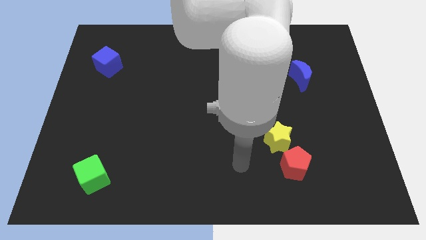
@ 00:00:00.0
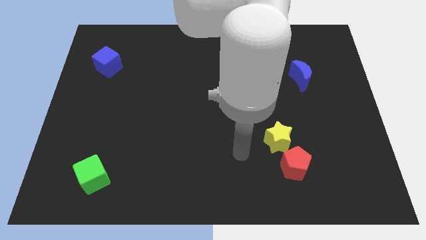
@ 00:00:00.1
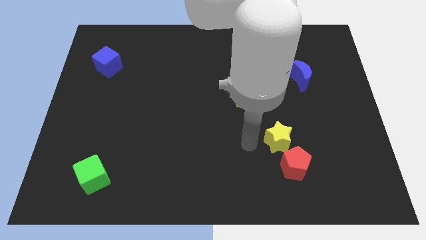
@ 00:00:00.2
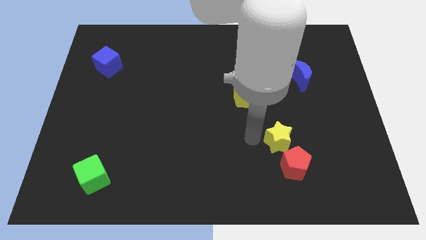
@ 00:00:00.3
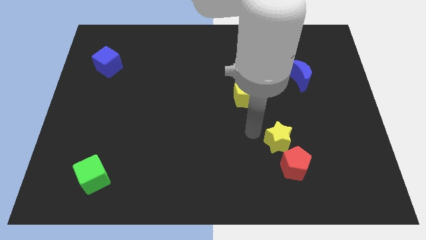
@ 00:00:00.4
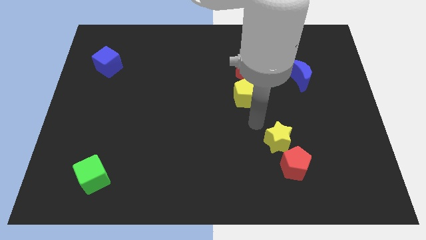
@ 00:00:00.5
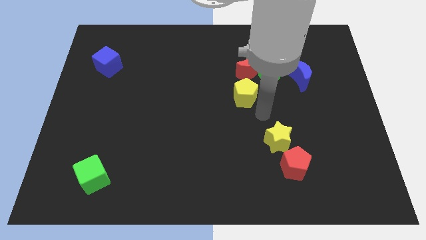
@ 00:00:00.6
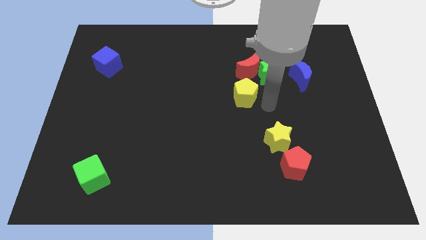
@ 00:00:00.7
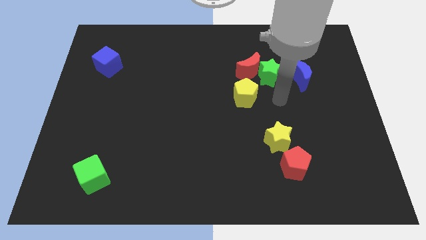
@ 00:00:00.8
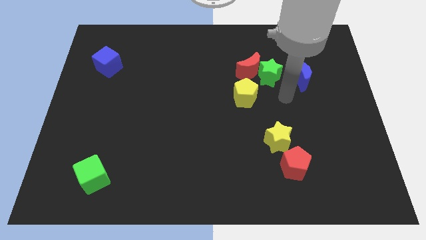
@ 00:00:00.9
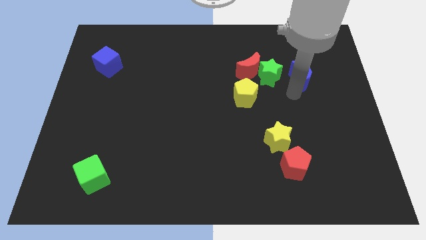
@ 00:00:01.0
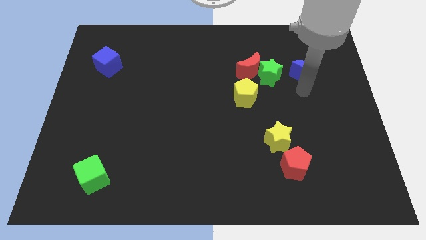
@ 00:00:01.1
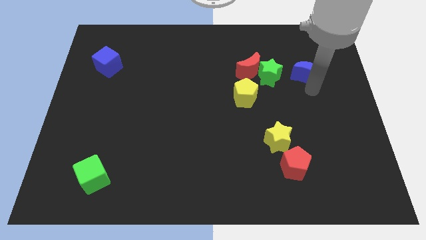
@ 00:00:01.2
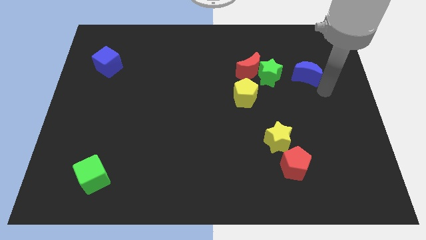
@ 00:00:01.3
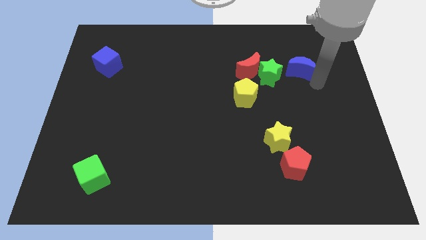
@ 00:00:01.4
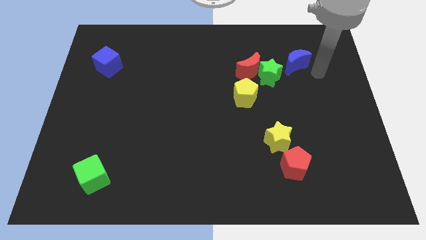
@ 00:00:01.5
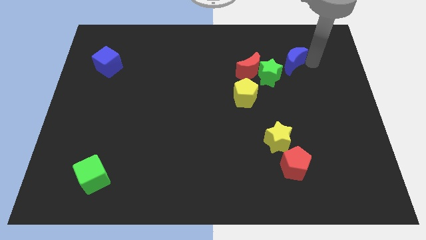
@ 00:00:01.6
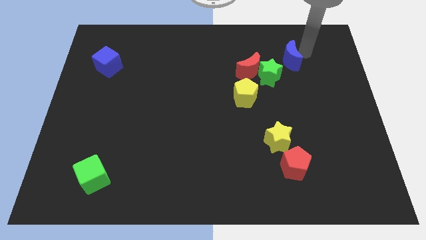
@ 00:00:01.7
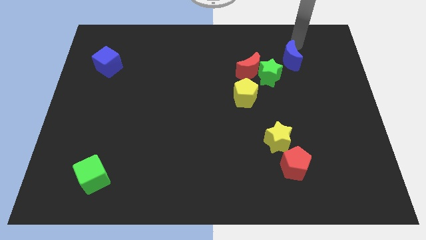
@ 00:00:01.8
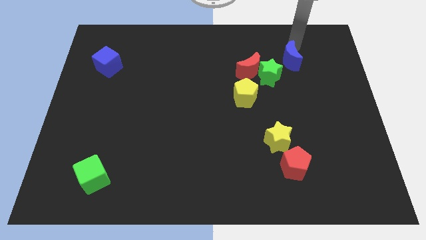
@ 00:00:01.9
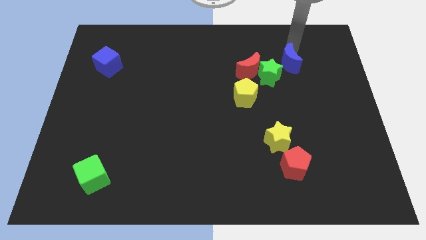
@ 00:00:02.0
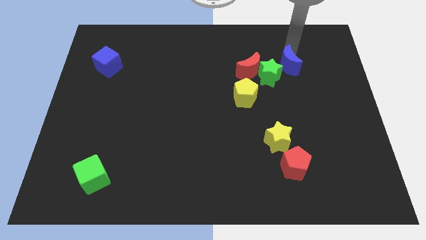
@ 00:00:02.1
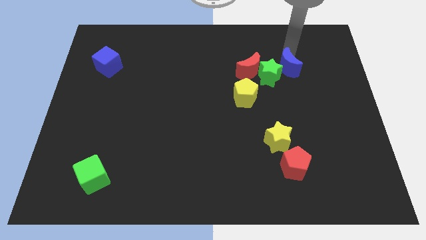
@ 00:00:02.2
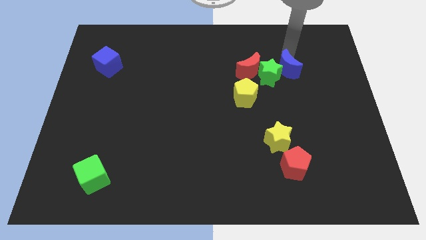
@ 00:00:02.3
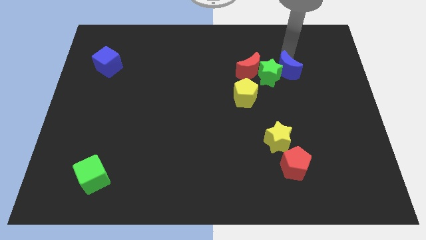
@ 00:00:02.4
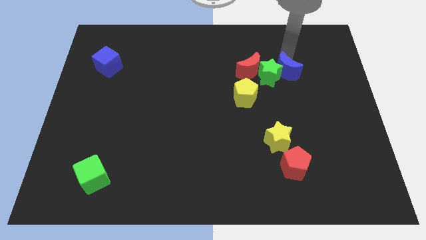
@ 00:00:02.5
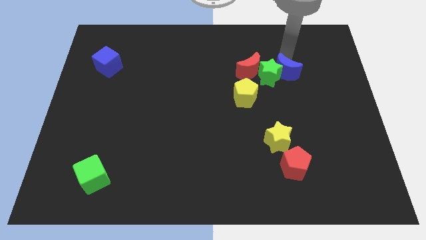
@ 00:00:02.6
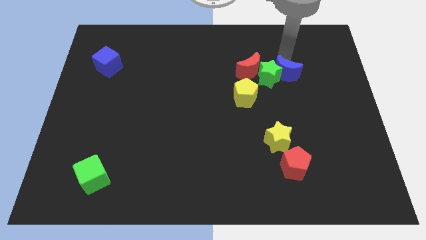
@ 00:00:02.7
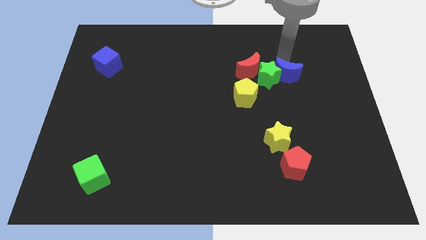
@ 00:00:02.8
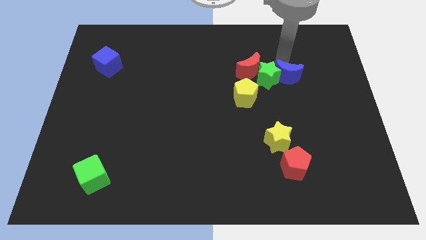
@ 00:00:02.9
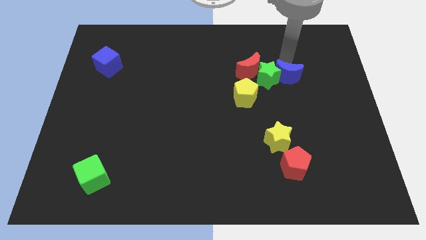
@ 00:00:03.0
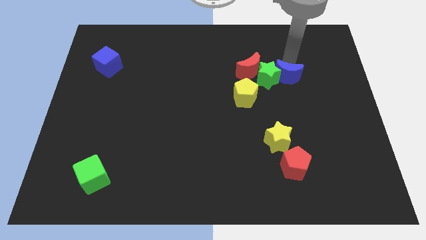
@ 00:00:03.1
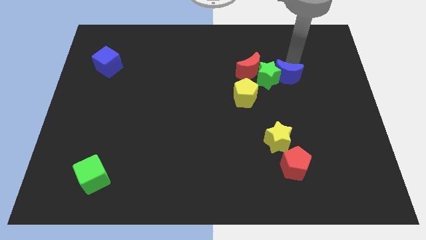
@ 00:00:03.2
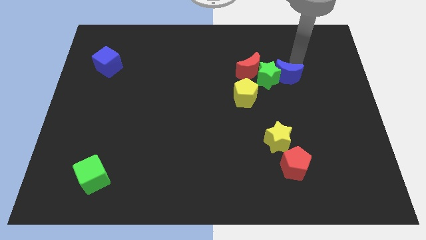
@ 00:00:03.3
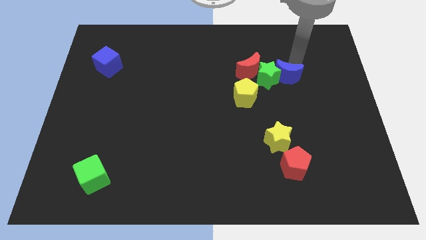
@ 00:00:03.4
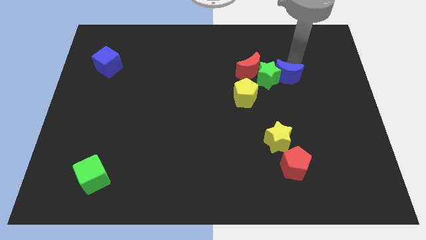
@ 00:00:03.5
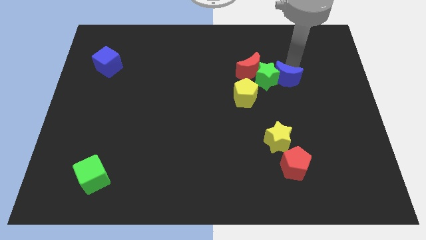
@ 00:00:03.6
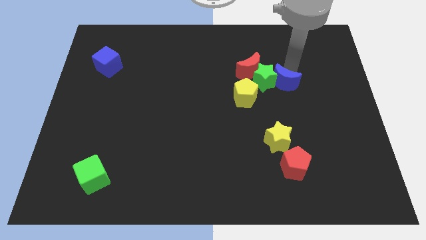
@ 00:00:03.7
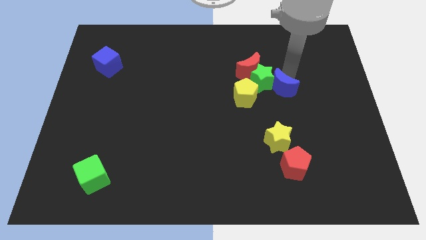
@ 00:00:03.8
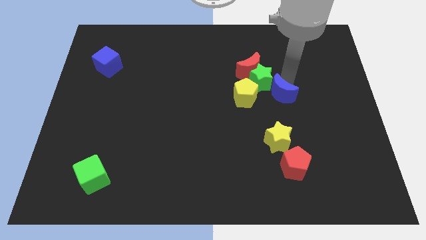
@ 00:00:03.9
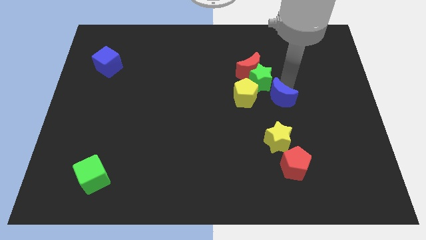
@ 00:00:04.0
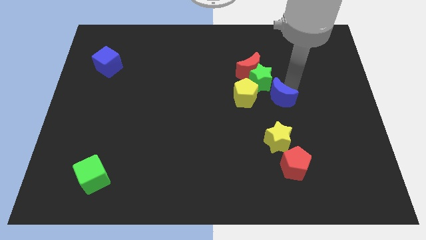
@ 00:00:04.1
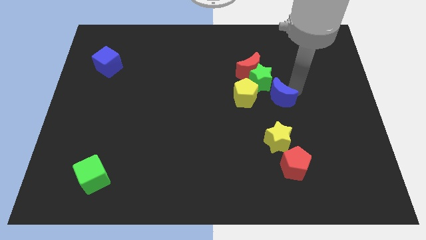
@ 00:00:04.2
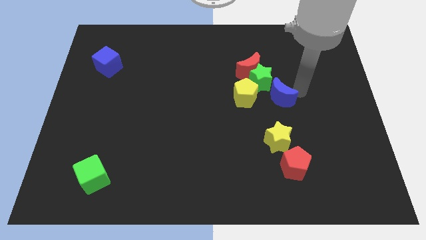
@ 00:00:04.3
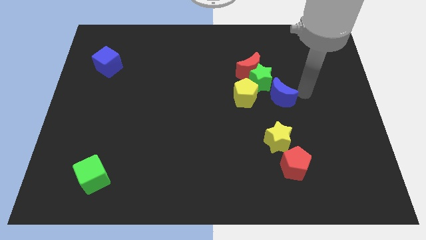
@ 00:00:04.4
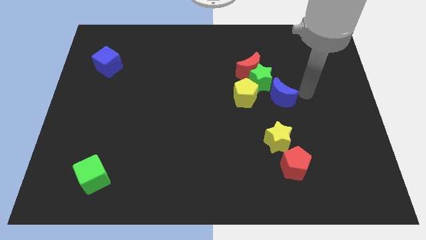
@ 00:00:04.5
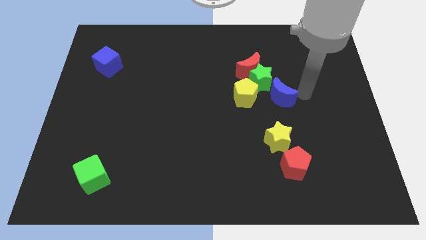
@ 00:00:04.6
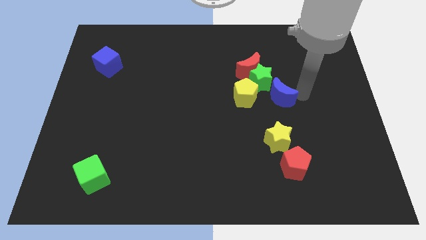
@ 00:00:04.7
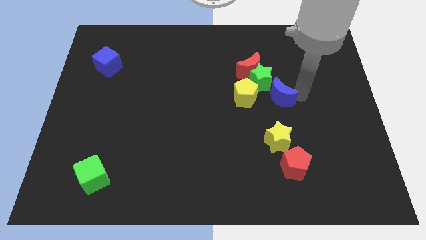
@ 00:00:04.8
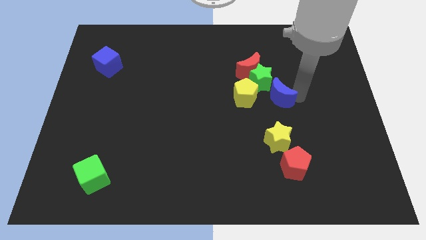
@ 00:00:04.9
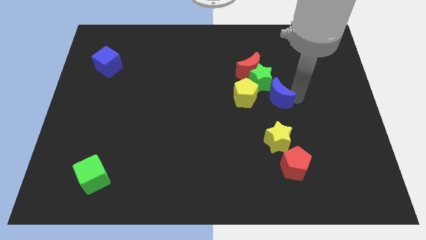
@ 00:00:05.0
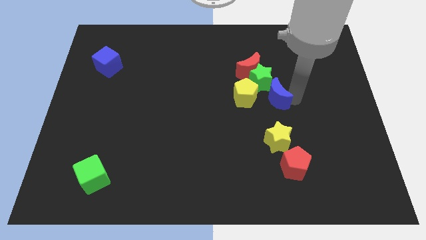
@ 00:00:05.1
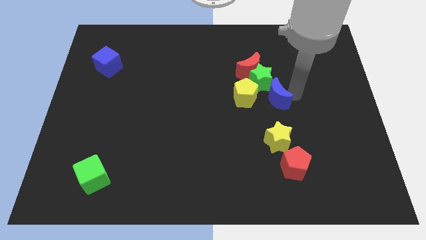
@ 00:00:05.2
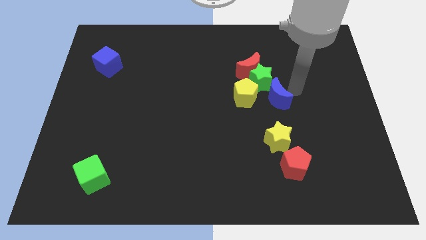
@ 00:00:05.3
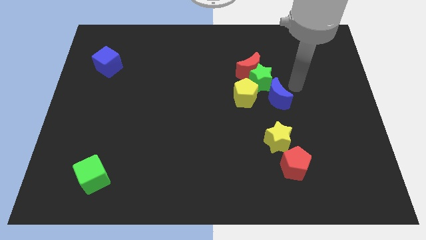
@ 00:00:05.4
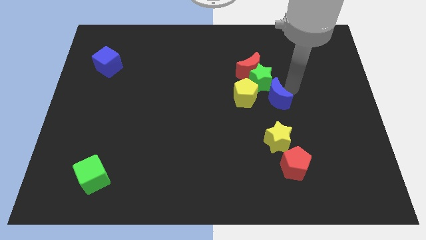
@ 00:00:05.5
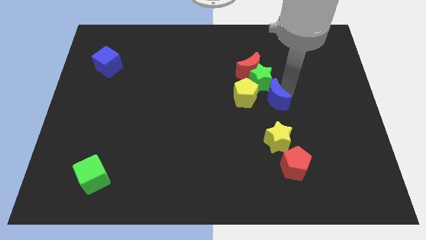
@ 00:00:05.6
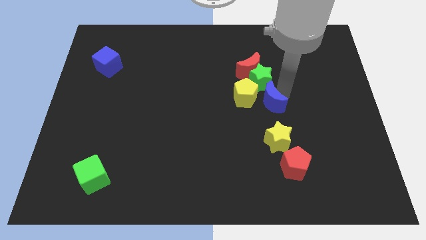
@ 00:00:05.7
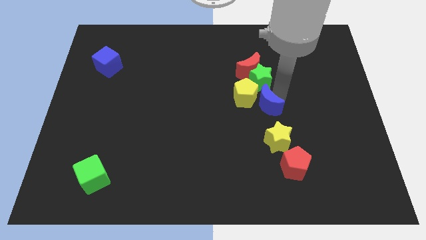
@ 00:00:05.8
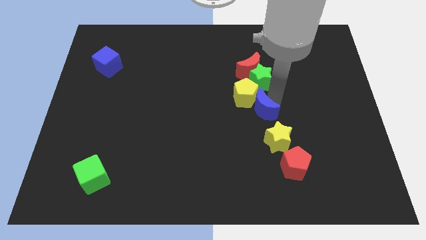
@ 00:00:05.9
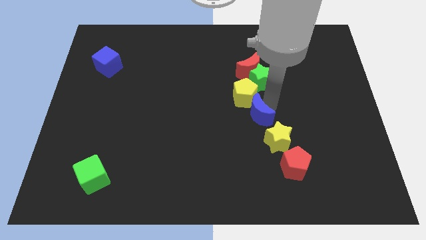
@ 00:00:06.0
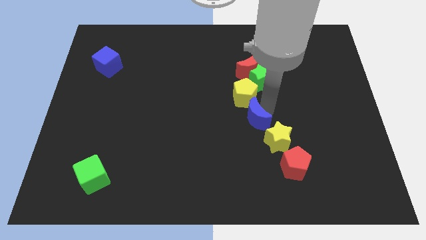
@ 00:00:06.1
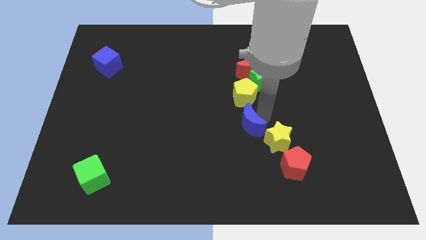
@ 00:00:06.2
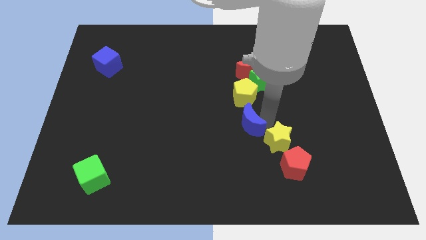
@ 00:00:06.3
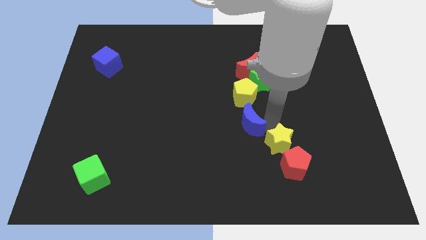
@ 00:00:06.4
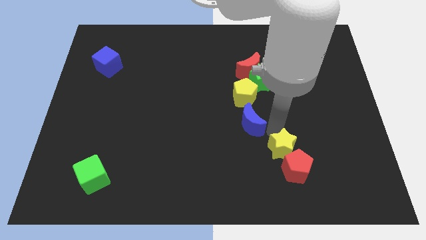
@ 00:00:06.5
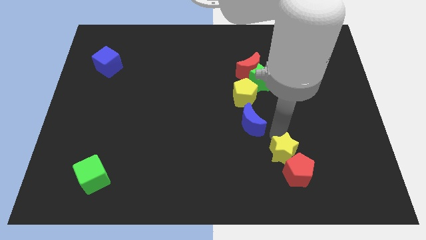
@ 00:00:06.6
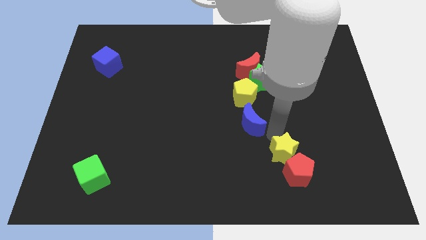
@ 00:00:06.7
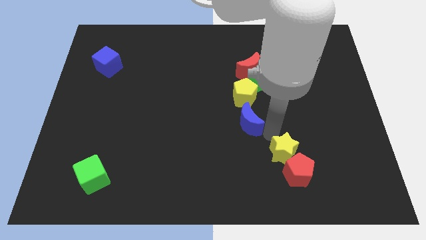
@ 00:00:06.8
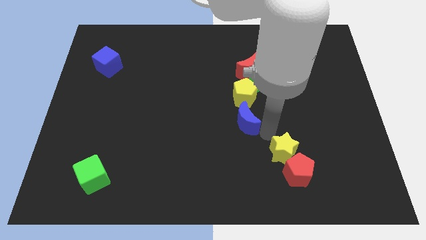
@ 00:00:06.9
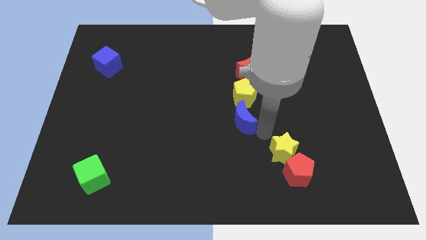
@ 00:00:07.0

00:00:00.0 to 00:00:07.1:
push the blue moon to the bottom left of the yellow pentagon
